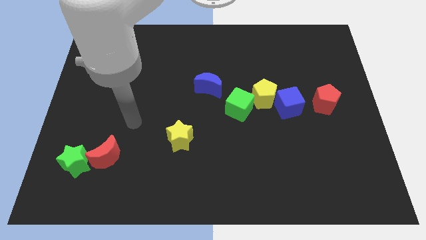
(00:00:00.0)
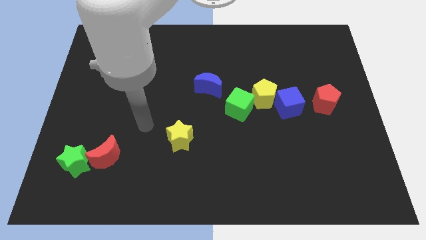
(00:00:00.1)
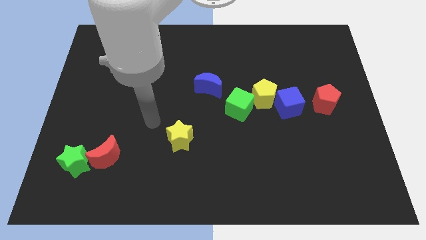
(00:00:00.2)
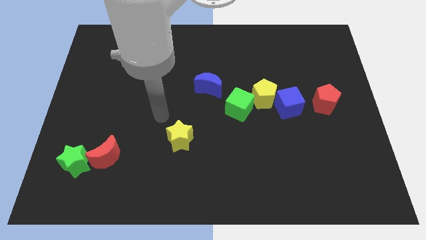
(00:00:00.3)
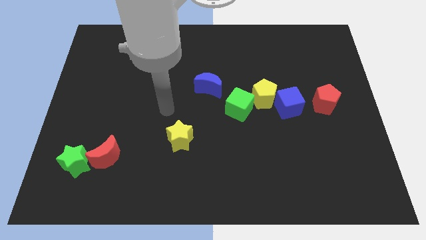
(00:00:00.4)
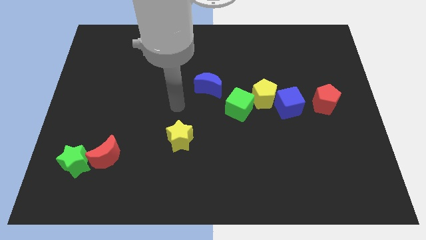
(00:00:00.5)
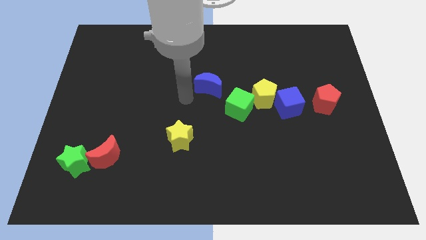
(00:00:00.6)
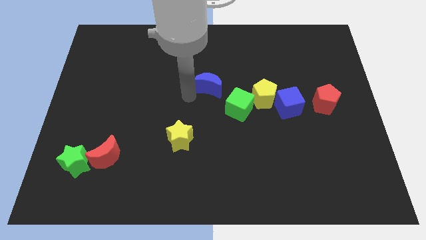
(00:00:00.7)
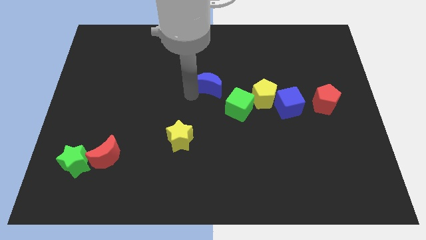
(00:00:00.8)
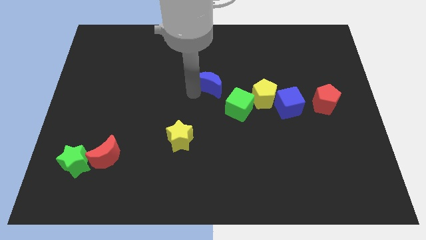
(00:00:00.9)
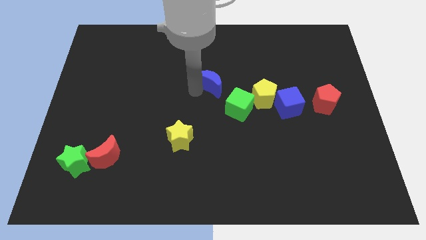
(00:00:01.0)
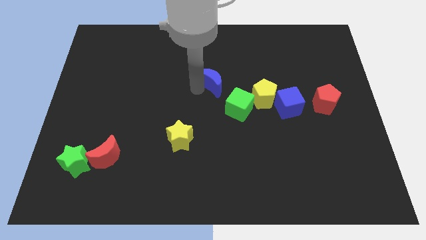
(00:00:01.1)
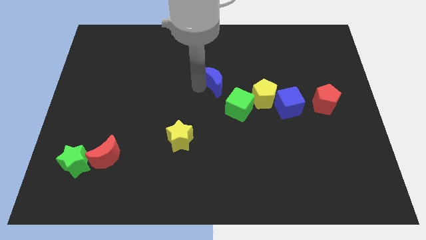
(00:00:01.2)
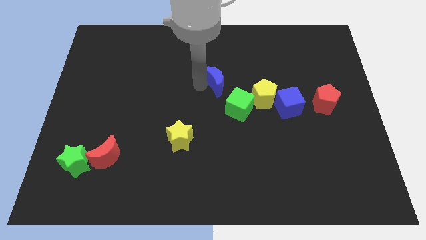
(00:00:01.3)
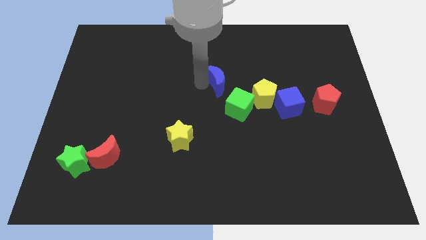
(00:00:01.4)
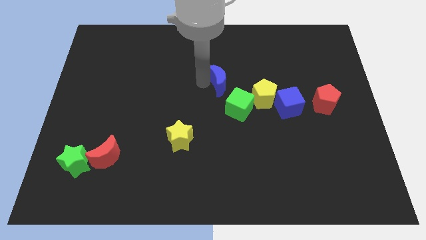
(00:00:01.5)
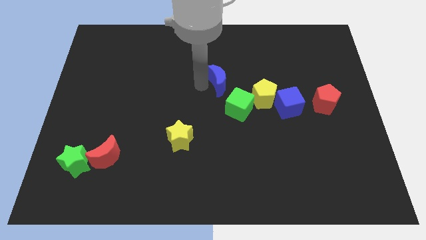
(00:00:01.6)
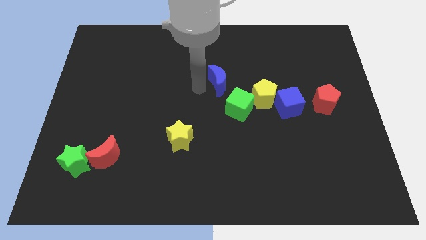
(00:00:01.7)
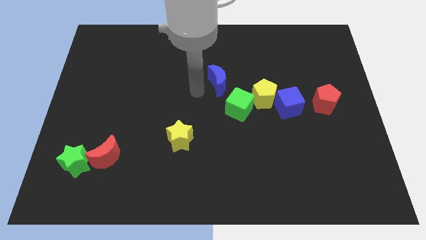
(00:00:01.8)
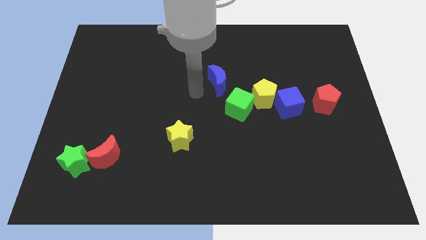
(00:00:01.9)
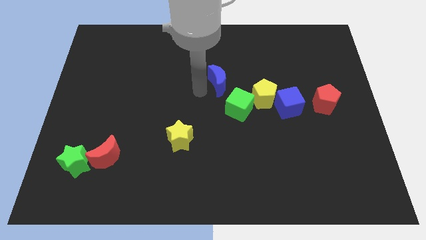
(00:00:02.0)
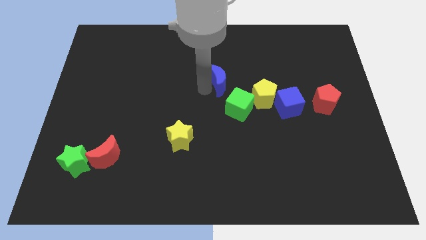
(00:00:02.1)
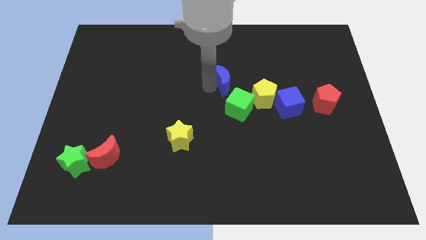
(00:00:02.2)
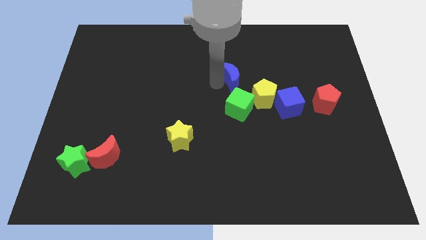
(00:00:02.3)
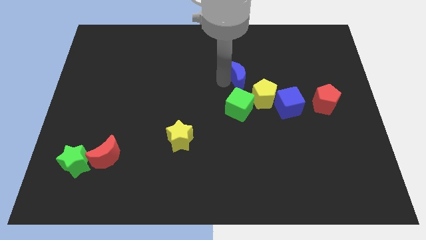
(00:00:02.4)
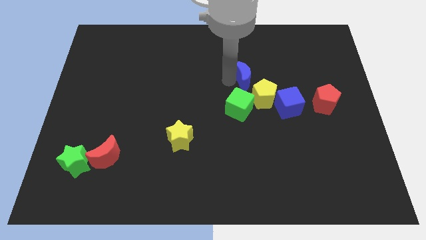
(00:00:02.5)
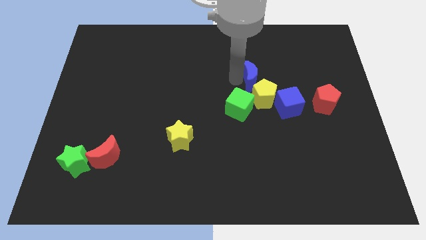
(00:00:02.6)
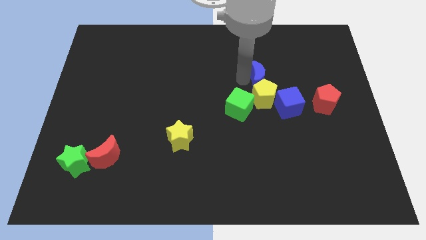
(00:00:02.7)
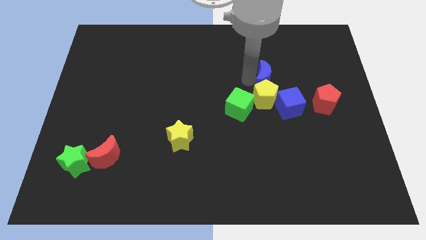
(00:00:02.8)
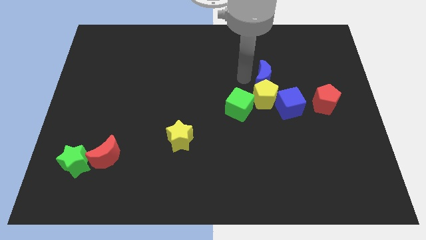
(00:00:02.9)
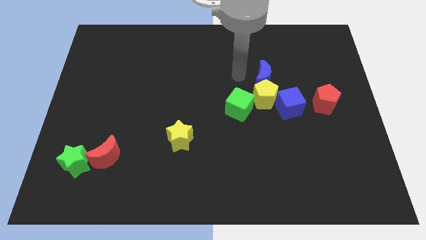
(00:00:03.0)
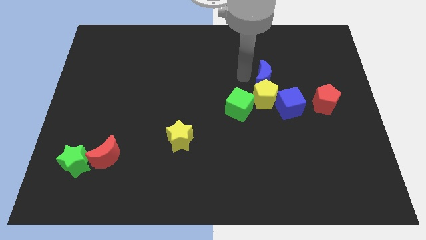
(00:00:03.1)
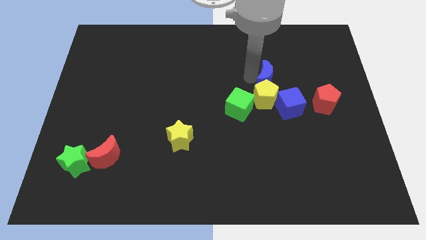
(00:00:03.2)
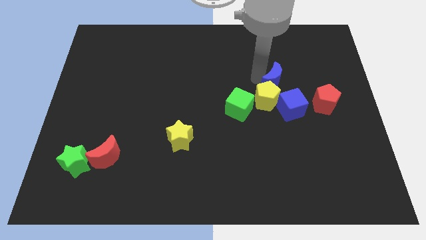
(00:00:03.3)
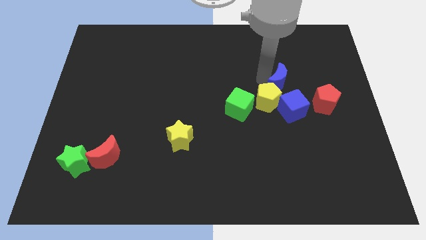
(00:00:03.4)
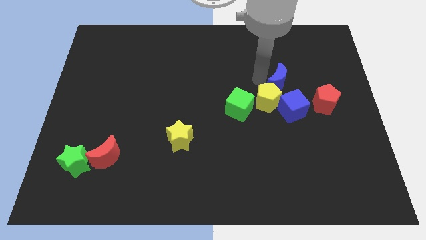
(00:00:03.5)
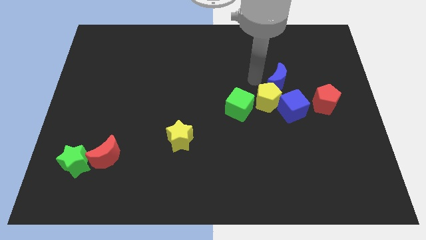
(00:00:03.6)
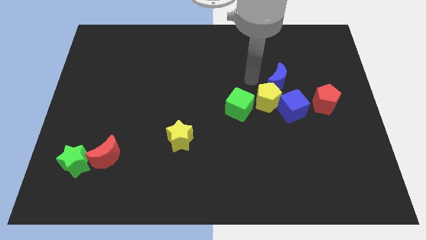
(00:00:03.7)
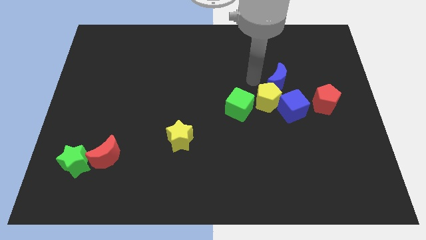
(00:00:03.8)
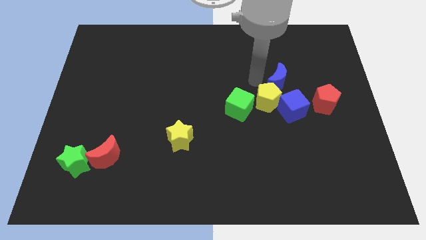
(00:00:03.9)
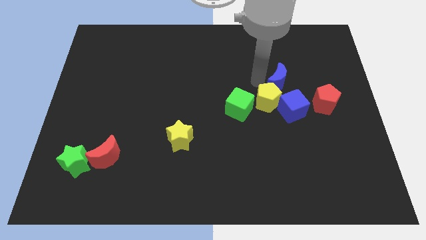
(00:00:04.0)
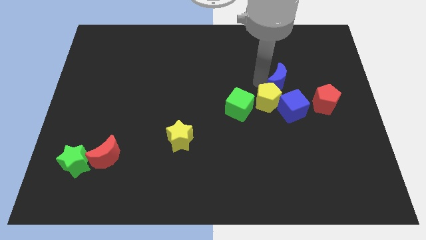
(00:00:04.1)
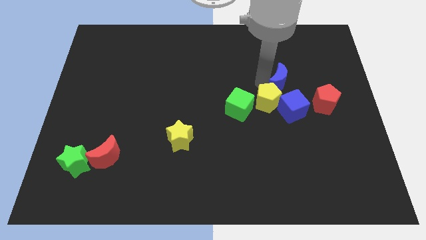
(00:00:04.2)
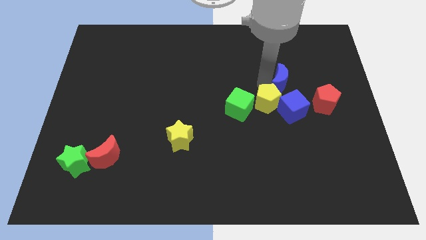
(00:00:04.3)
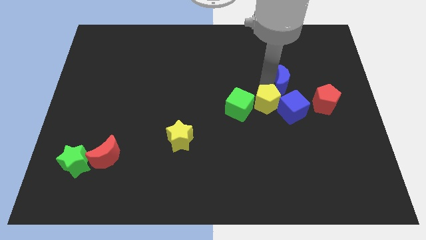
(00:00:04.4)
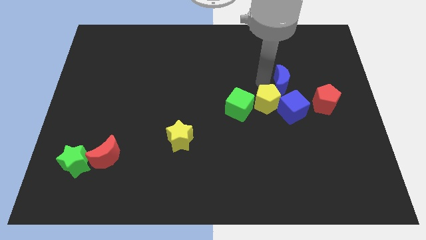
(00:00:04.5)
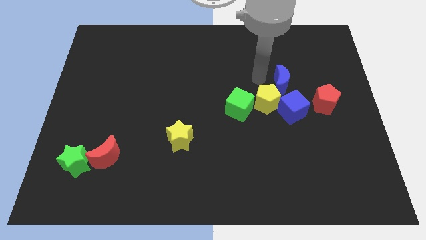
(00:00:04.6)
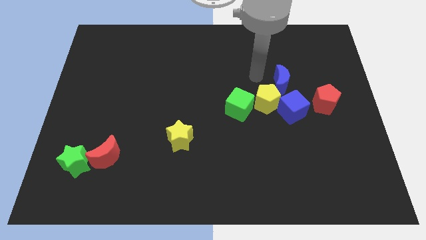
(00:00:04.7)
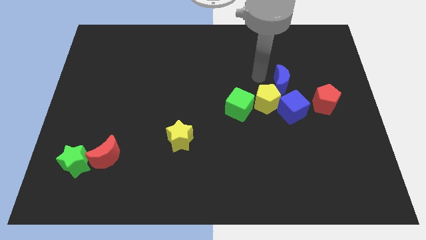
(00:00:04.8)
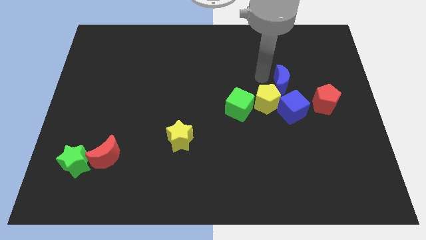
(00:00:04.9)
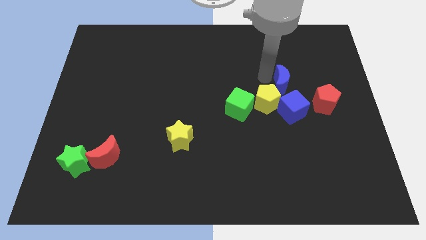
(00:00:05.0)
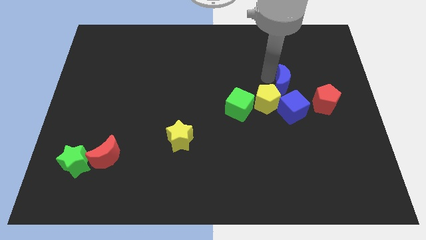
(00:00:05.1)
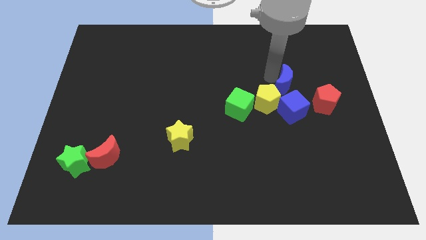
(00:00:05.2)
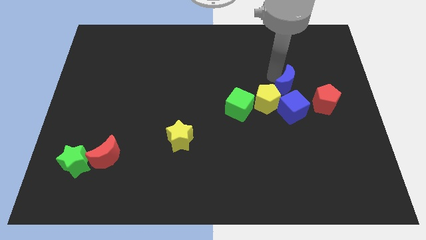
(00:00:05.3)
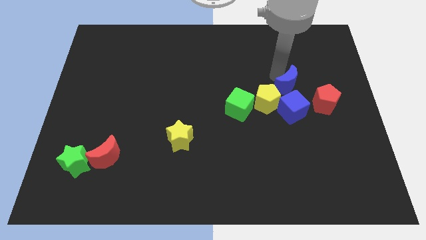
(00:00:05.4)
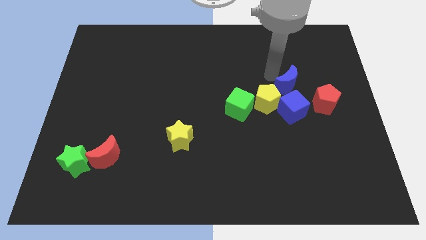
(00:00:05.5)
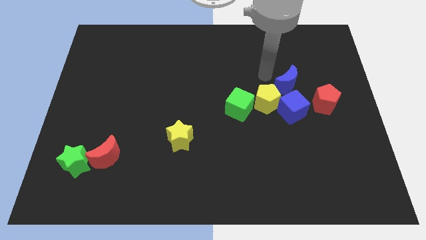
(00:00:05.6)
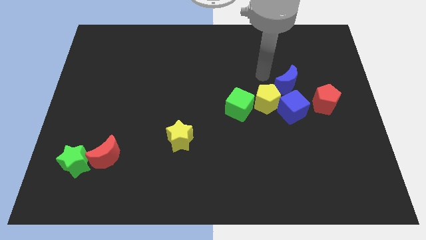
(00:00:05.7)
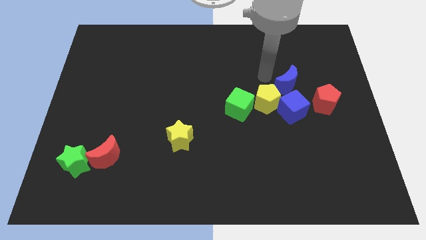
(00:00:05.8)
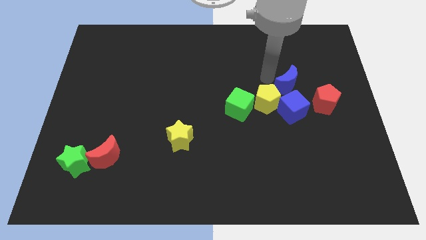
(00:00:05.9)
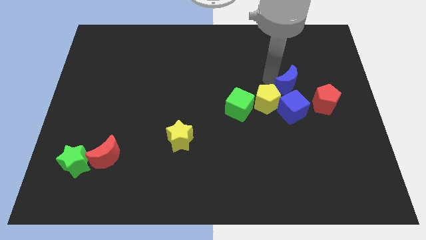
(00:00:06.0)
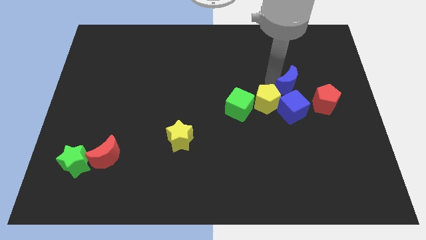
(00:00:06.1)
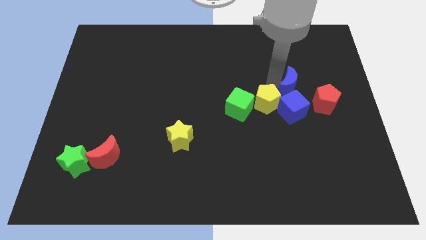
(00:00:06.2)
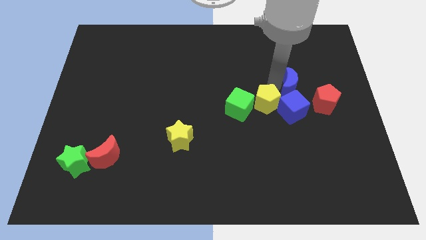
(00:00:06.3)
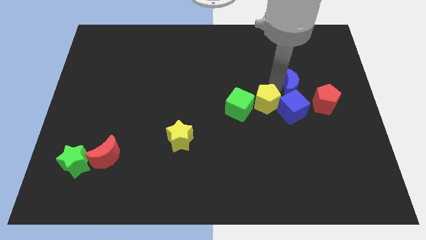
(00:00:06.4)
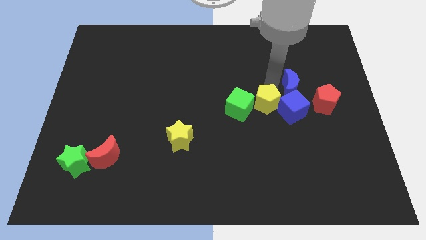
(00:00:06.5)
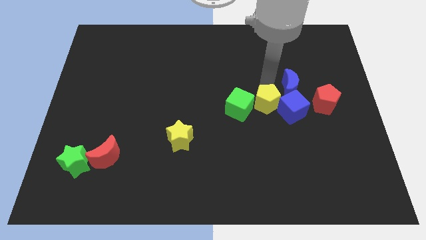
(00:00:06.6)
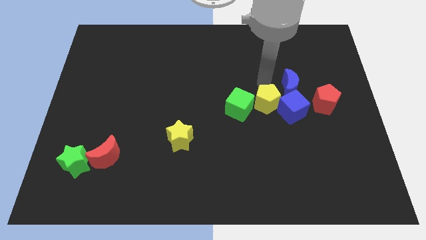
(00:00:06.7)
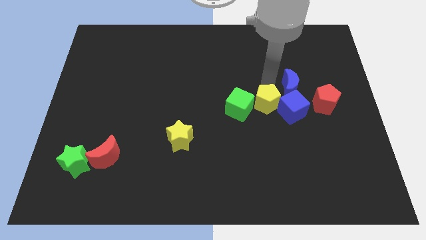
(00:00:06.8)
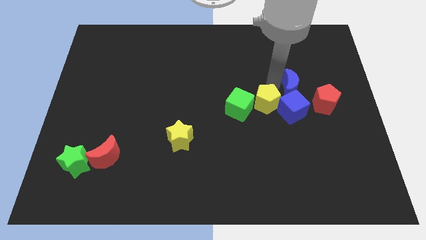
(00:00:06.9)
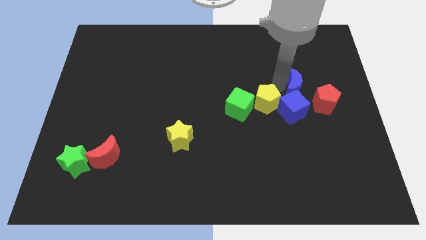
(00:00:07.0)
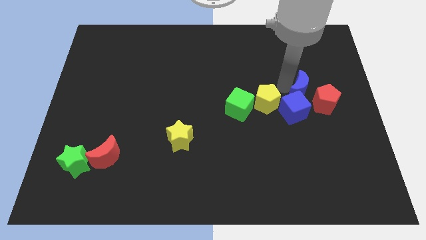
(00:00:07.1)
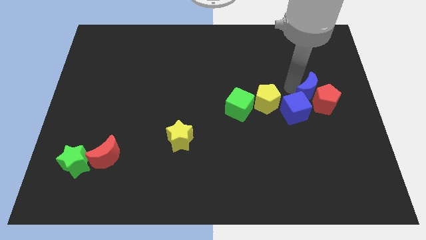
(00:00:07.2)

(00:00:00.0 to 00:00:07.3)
move the blue moon next to the red pentagon

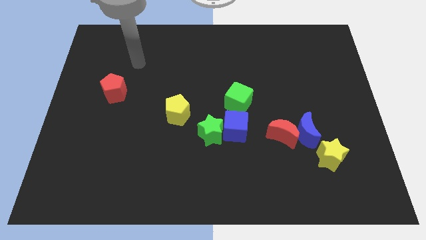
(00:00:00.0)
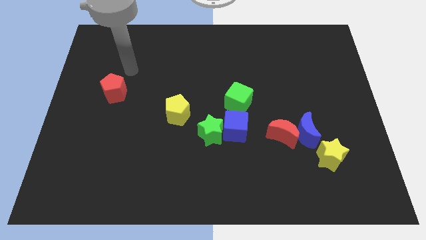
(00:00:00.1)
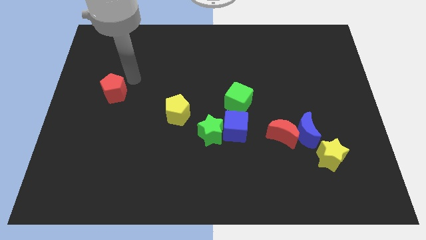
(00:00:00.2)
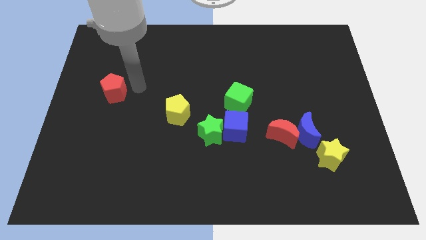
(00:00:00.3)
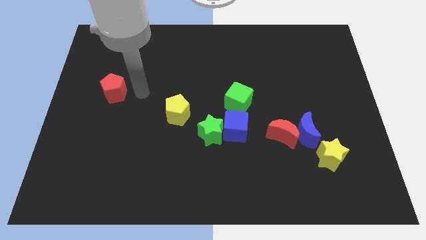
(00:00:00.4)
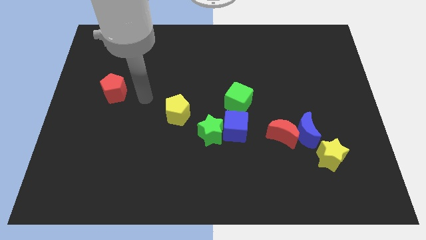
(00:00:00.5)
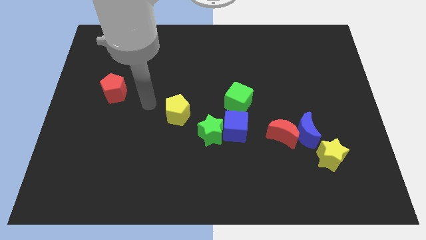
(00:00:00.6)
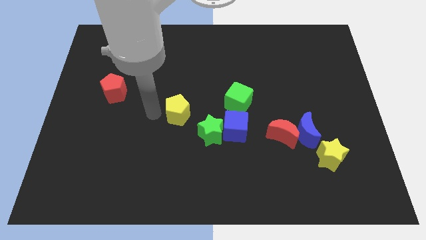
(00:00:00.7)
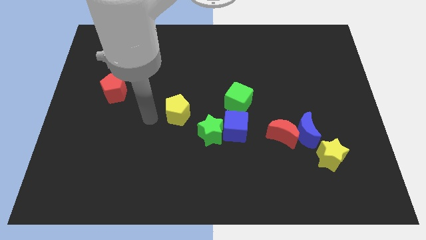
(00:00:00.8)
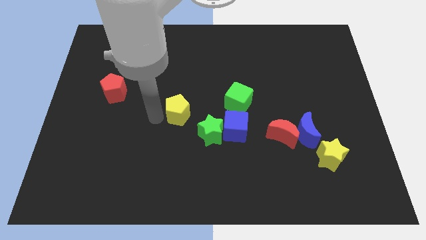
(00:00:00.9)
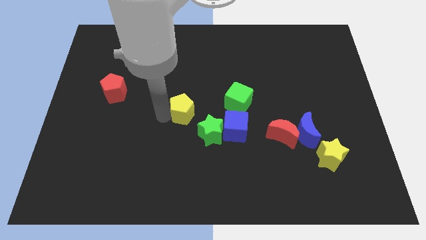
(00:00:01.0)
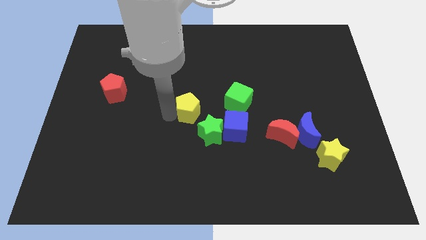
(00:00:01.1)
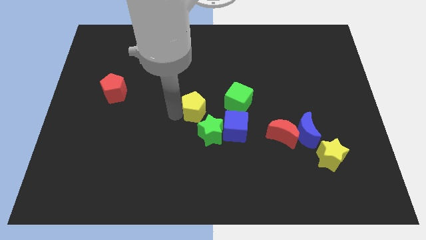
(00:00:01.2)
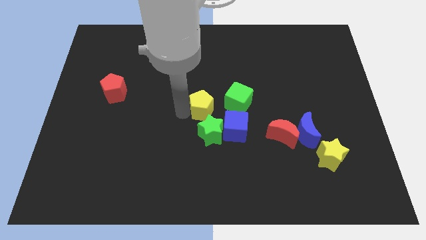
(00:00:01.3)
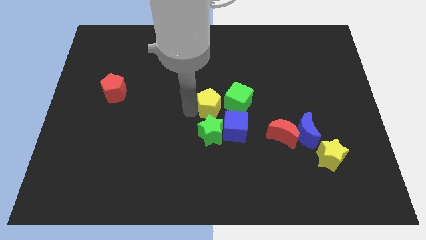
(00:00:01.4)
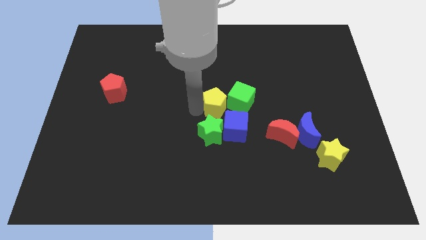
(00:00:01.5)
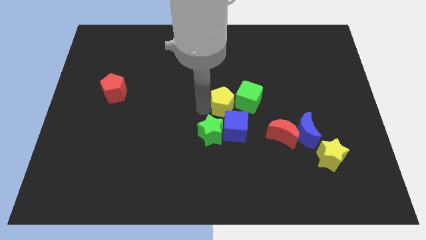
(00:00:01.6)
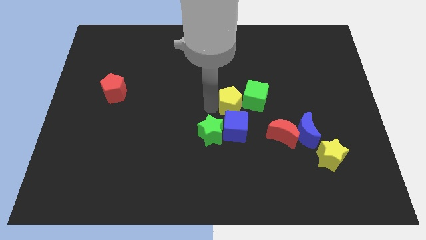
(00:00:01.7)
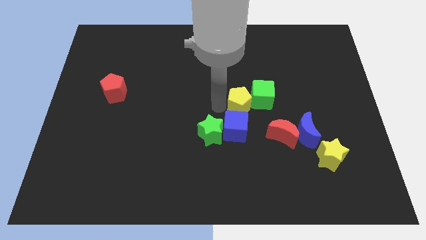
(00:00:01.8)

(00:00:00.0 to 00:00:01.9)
push the yellow pentagon close to the green cube
